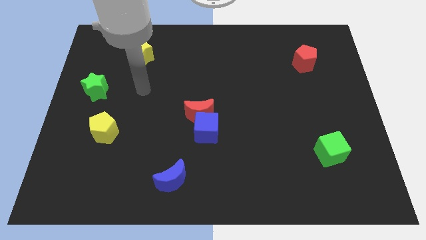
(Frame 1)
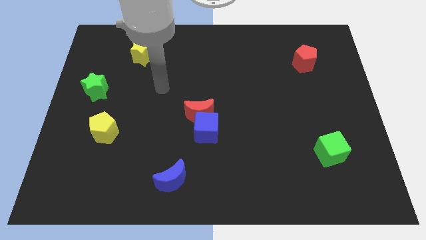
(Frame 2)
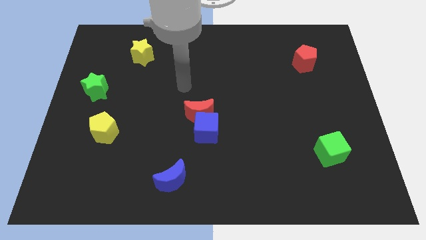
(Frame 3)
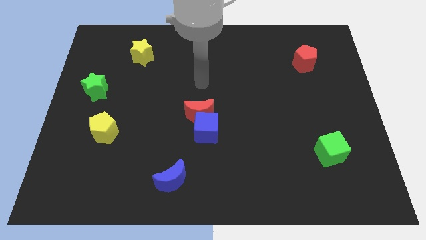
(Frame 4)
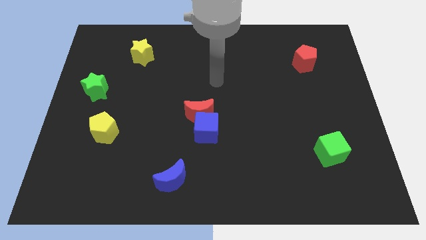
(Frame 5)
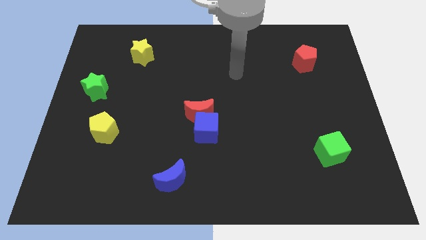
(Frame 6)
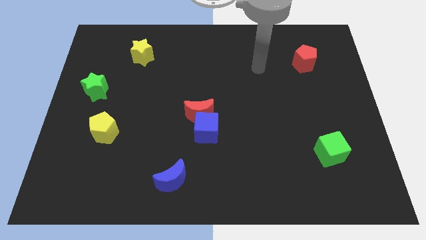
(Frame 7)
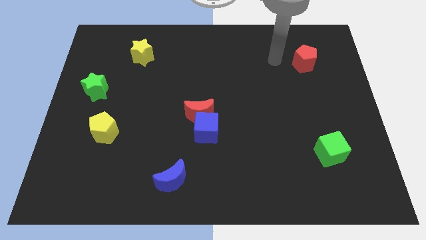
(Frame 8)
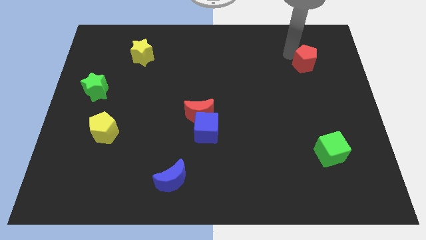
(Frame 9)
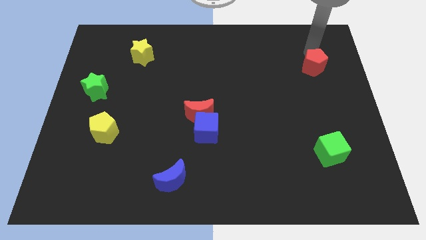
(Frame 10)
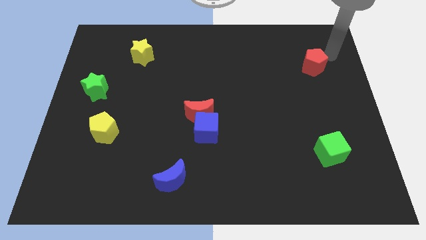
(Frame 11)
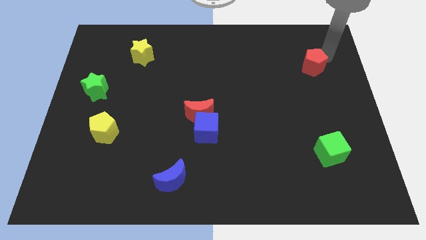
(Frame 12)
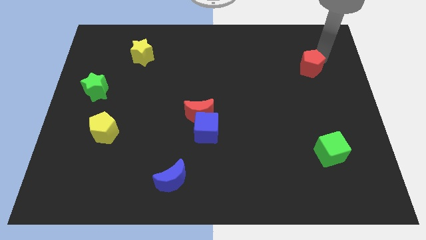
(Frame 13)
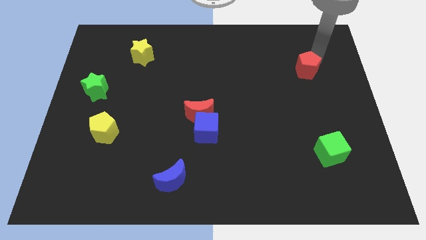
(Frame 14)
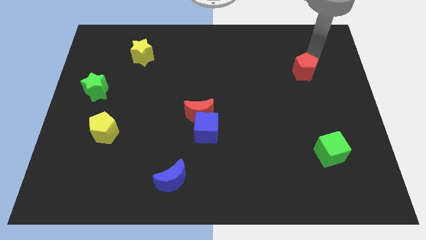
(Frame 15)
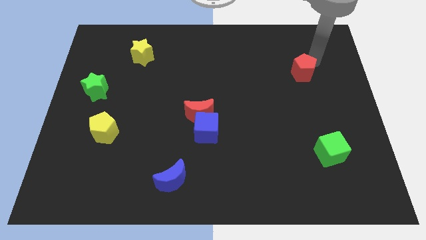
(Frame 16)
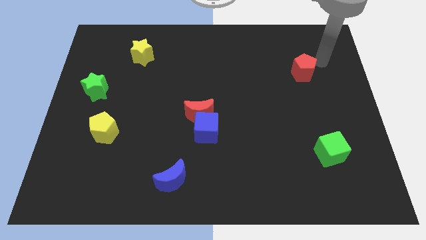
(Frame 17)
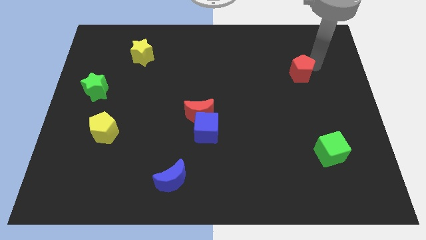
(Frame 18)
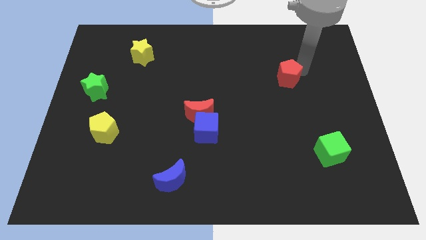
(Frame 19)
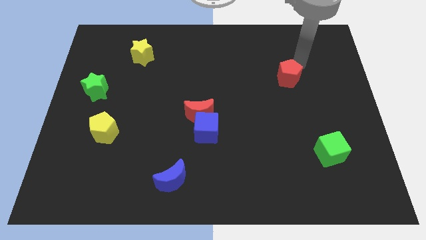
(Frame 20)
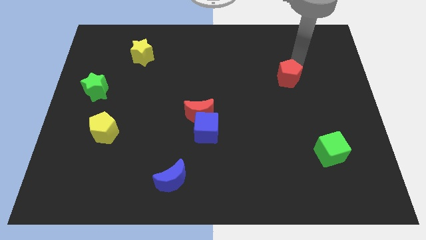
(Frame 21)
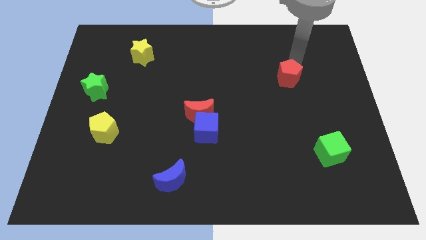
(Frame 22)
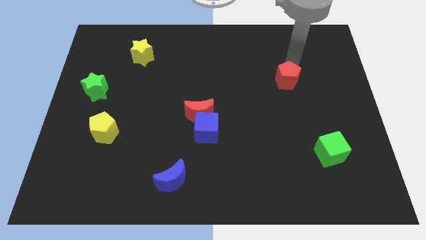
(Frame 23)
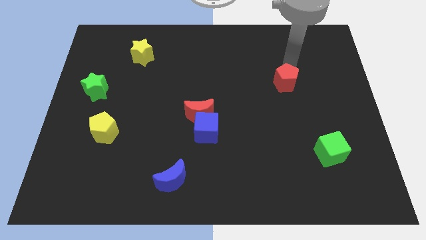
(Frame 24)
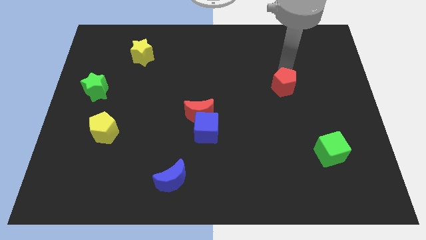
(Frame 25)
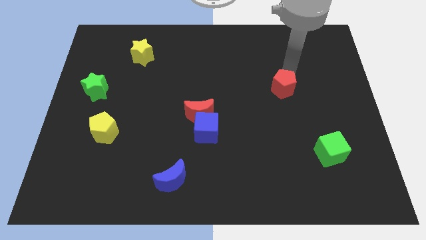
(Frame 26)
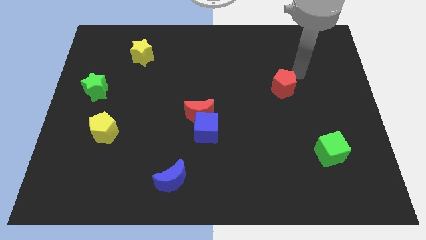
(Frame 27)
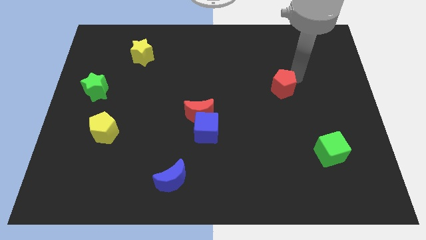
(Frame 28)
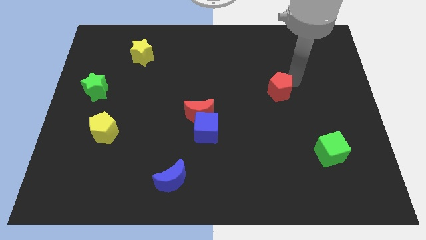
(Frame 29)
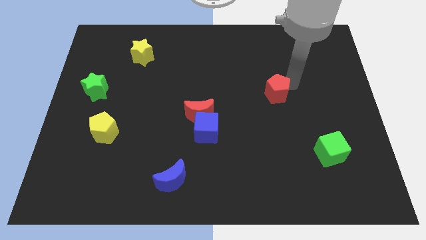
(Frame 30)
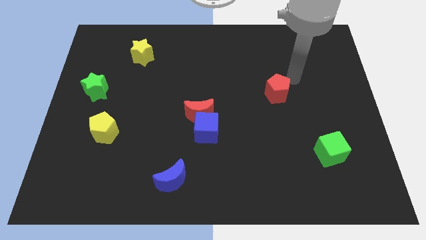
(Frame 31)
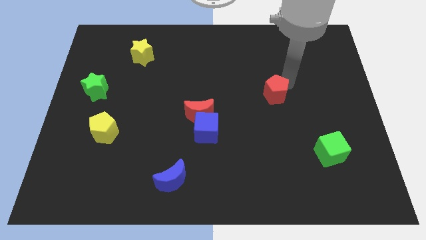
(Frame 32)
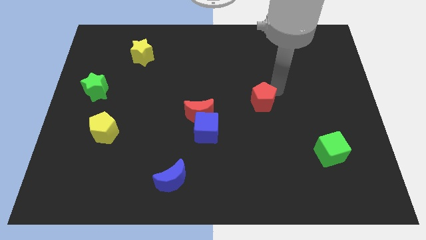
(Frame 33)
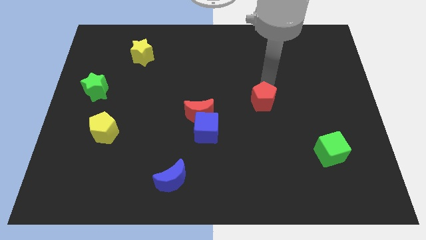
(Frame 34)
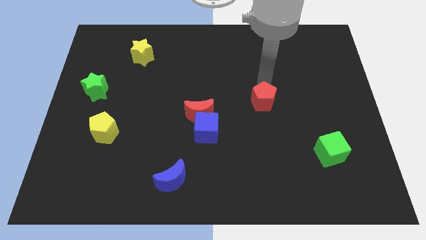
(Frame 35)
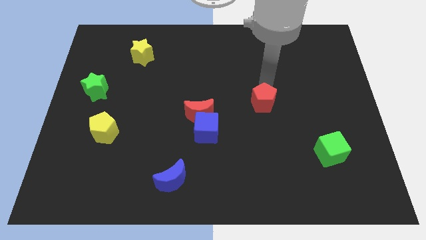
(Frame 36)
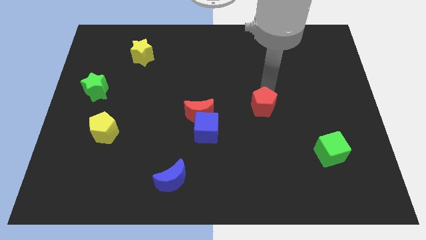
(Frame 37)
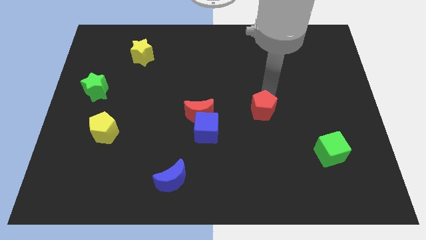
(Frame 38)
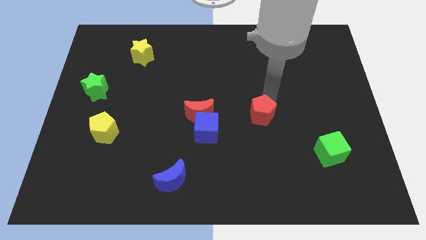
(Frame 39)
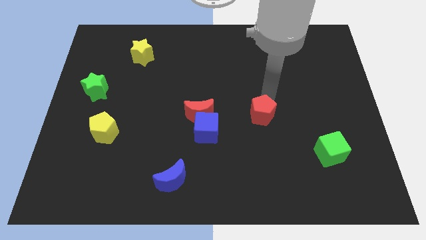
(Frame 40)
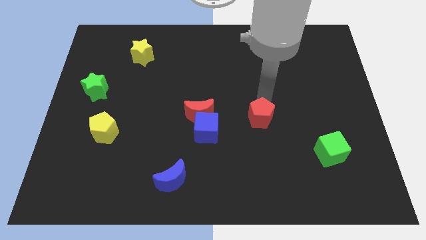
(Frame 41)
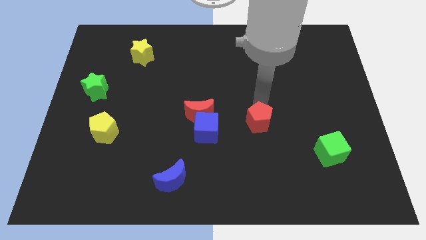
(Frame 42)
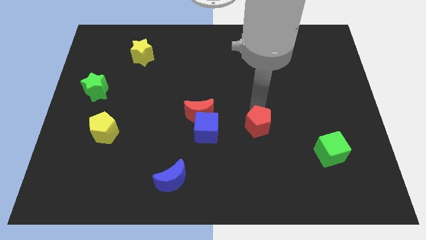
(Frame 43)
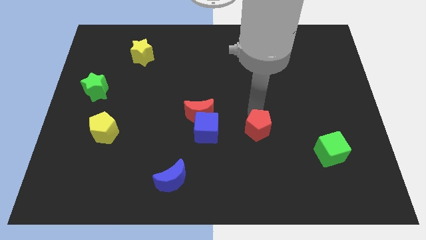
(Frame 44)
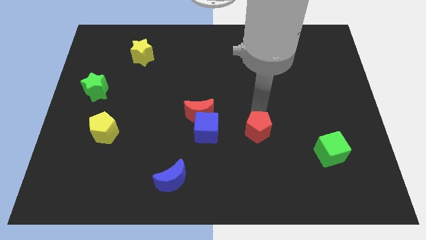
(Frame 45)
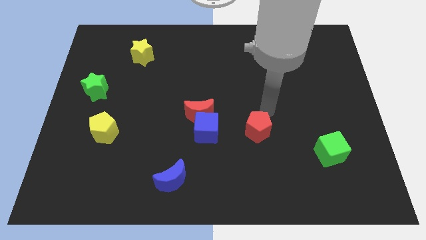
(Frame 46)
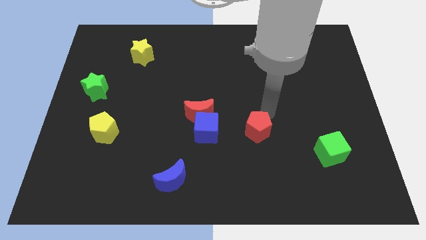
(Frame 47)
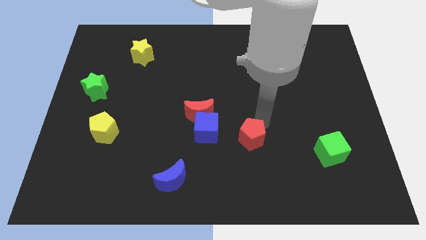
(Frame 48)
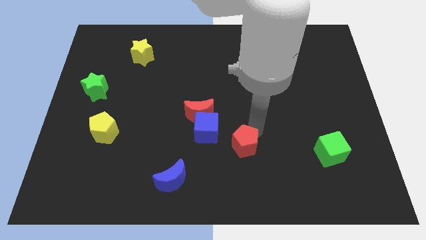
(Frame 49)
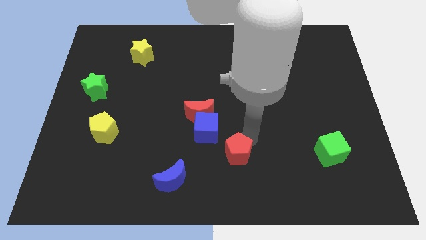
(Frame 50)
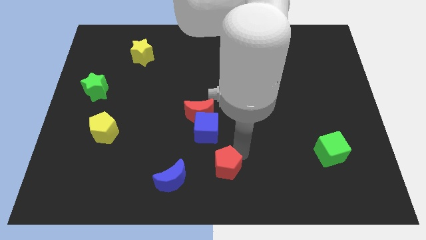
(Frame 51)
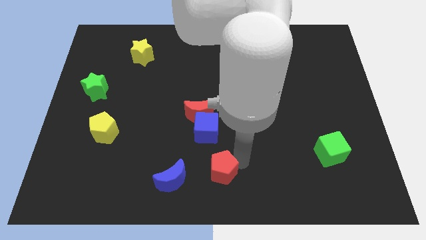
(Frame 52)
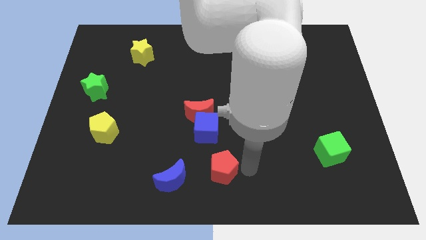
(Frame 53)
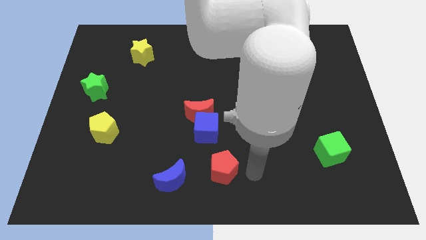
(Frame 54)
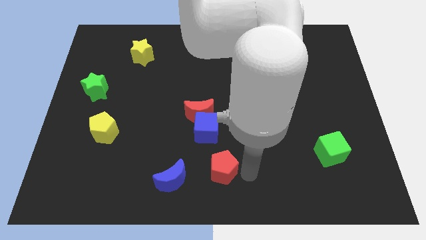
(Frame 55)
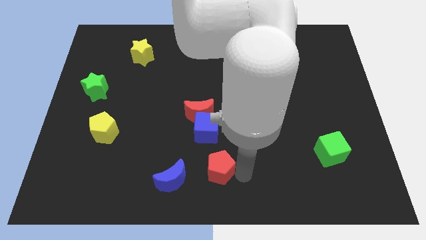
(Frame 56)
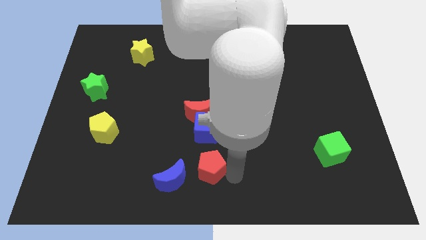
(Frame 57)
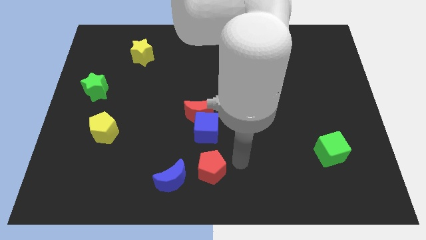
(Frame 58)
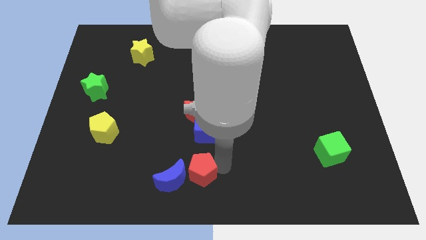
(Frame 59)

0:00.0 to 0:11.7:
move the red pentagon to the blue moon

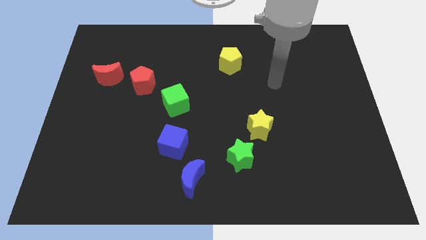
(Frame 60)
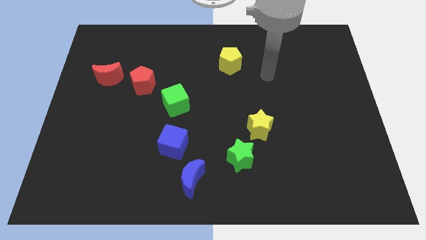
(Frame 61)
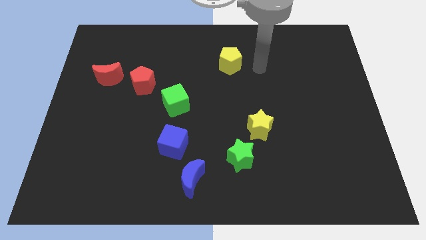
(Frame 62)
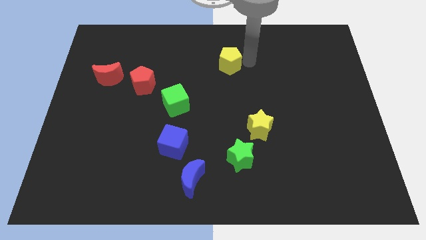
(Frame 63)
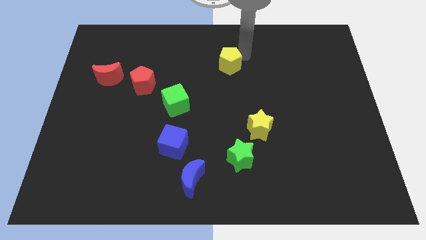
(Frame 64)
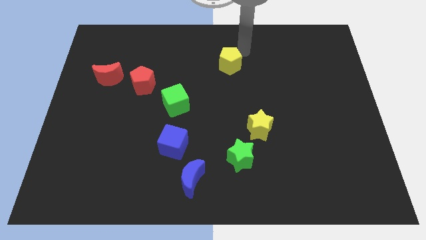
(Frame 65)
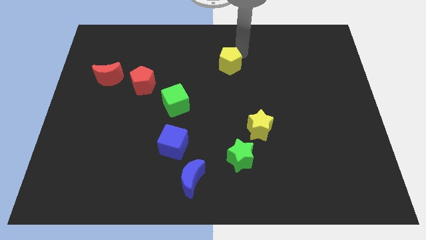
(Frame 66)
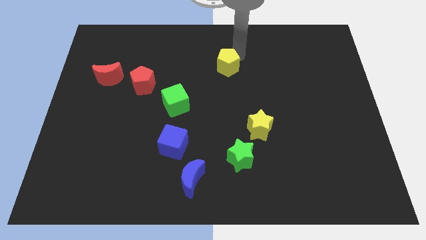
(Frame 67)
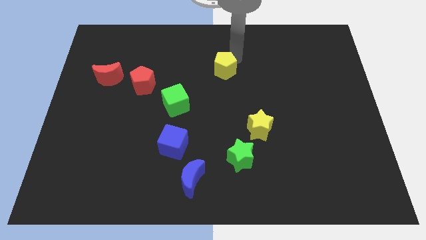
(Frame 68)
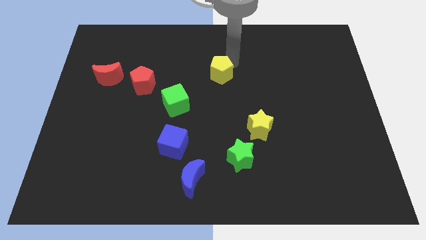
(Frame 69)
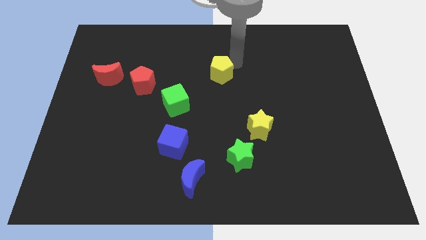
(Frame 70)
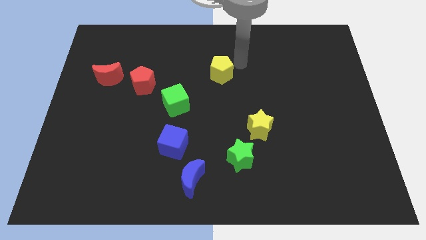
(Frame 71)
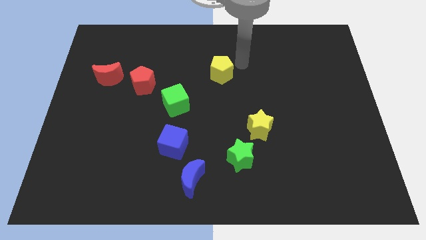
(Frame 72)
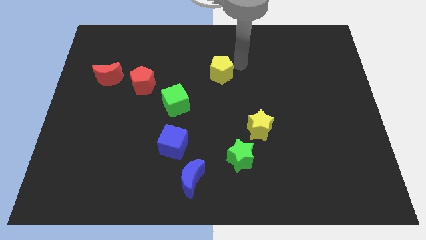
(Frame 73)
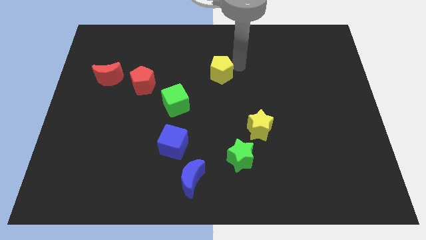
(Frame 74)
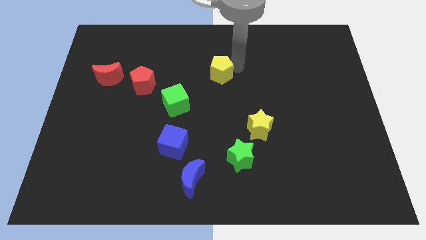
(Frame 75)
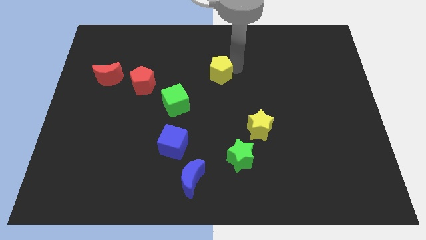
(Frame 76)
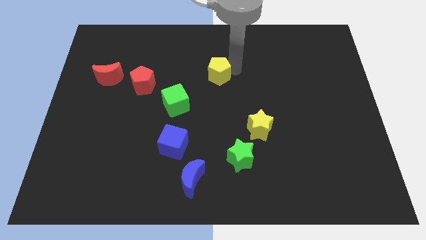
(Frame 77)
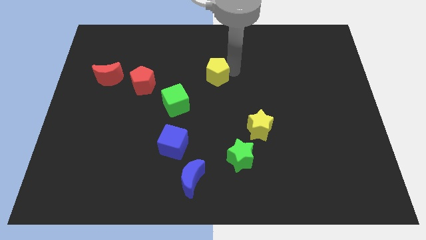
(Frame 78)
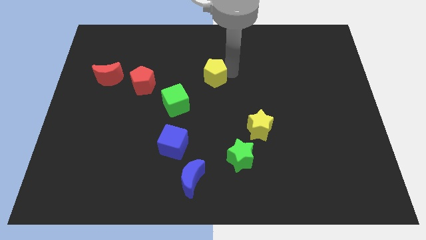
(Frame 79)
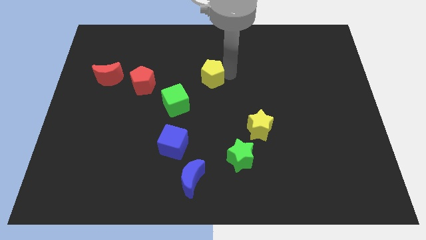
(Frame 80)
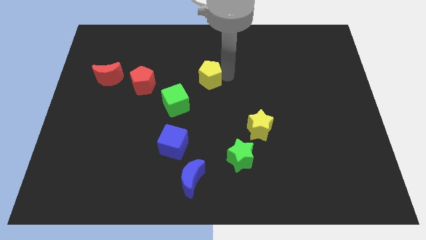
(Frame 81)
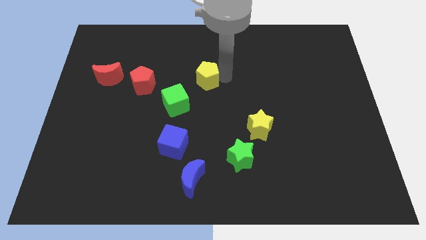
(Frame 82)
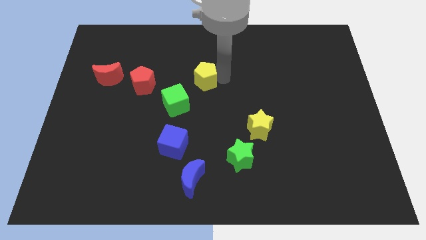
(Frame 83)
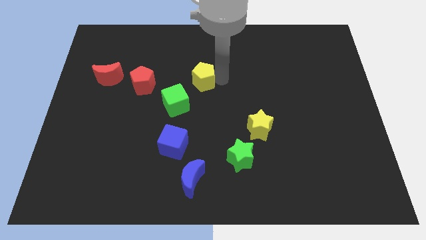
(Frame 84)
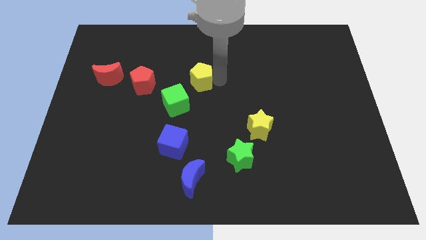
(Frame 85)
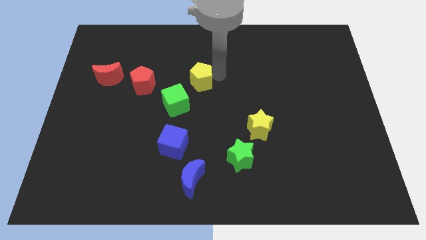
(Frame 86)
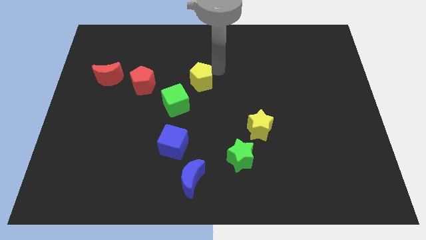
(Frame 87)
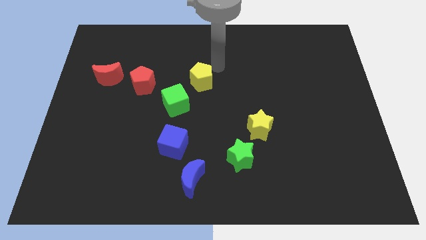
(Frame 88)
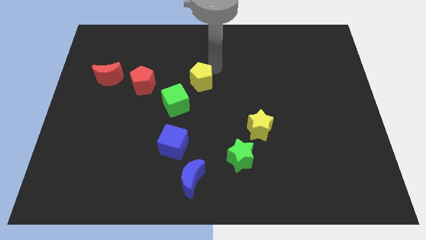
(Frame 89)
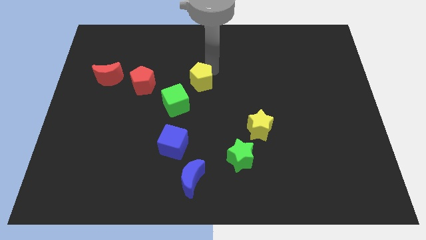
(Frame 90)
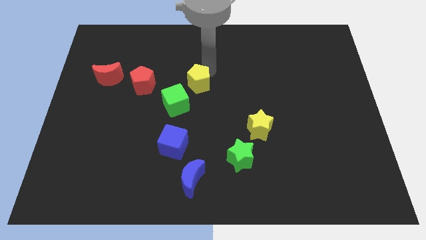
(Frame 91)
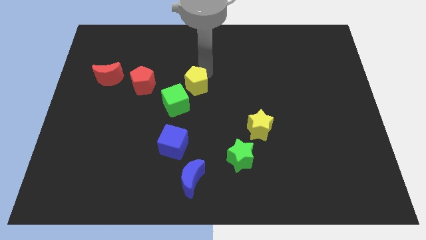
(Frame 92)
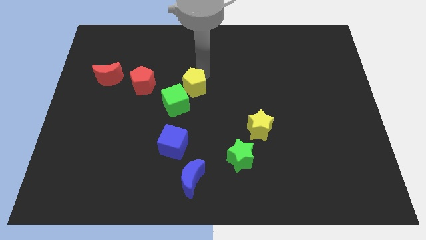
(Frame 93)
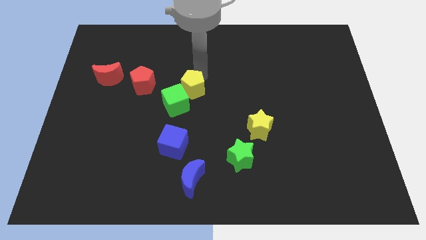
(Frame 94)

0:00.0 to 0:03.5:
move the yellow pentagon next to the green cube
